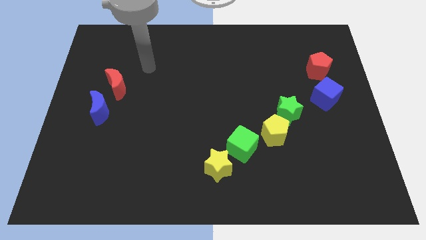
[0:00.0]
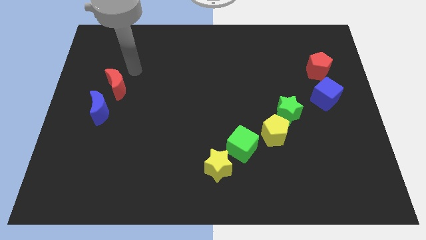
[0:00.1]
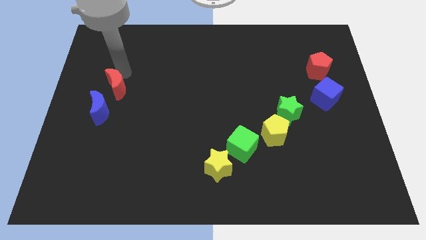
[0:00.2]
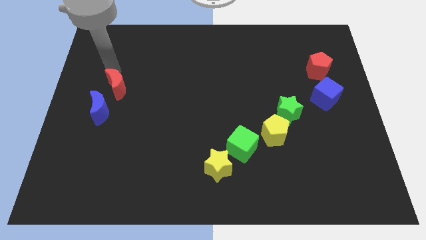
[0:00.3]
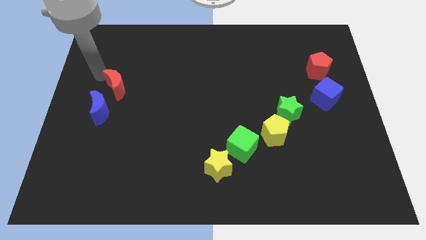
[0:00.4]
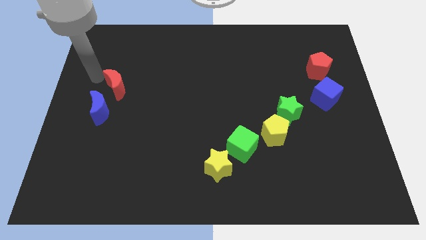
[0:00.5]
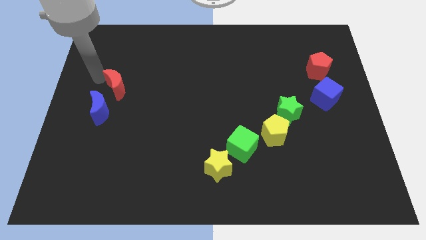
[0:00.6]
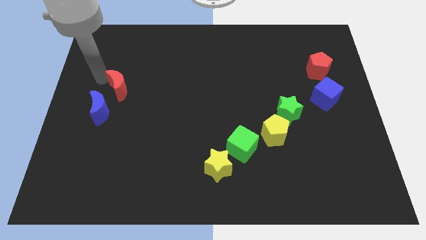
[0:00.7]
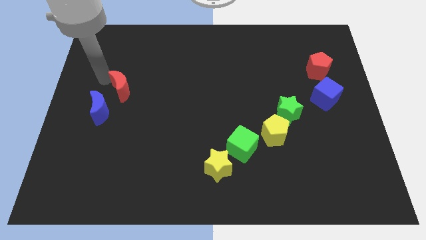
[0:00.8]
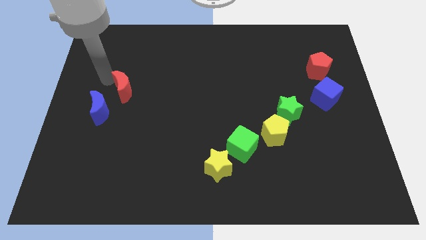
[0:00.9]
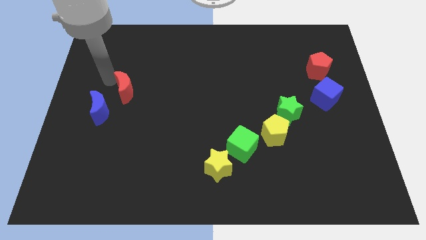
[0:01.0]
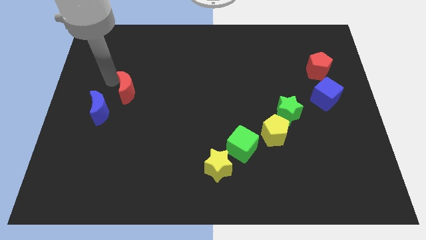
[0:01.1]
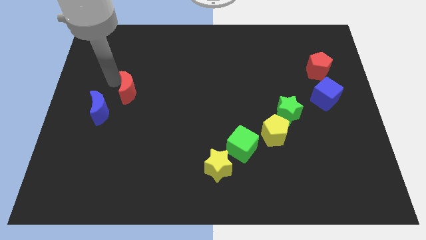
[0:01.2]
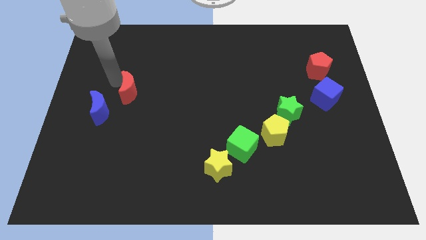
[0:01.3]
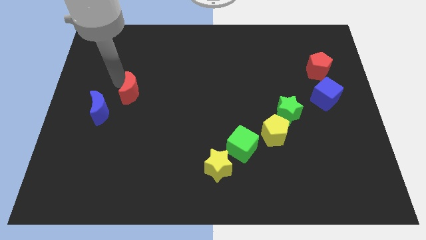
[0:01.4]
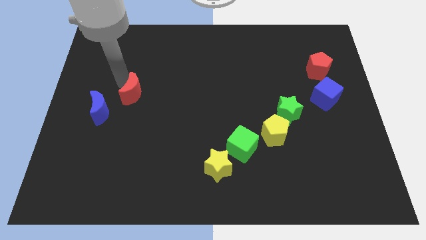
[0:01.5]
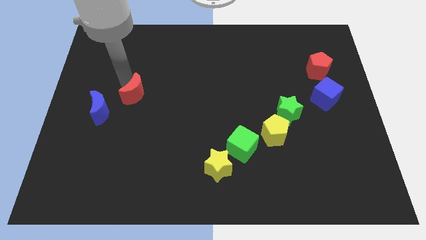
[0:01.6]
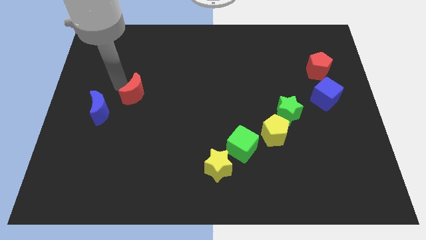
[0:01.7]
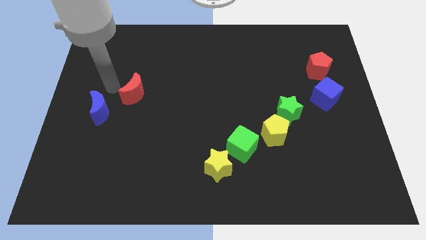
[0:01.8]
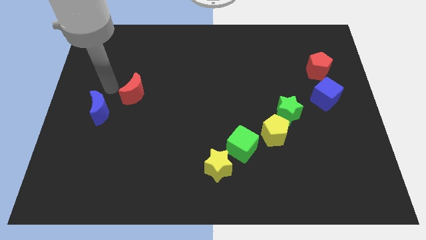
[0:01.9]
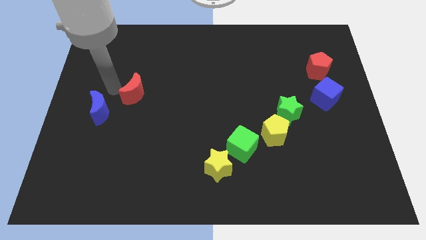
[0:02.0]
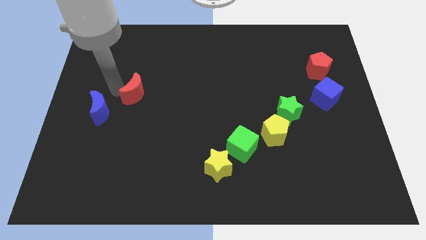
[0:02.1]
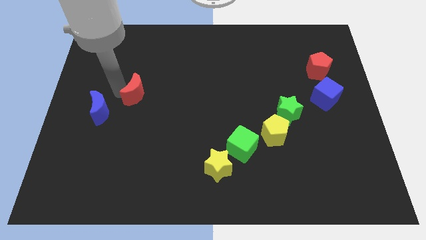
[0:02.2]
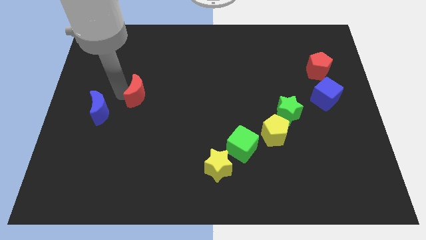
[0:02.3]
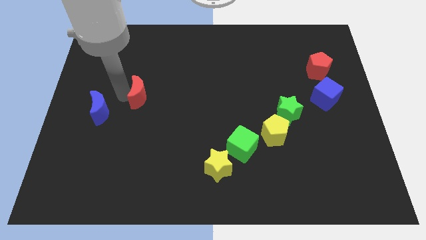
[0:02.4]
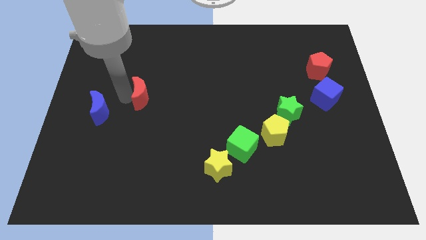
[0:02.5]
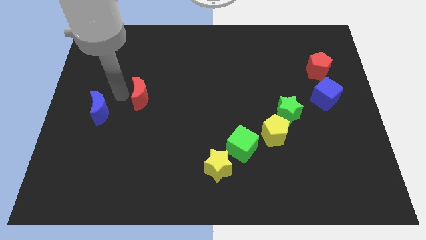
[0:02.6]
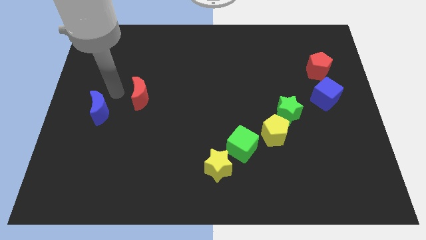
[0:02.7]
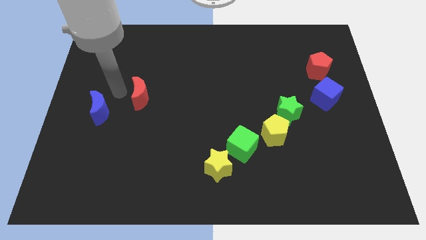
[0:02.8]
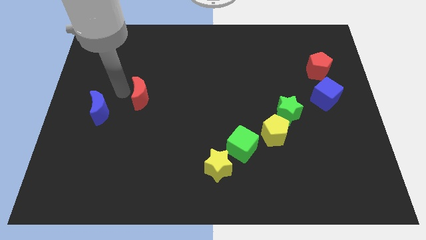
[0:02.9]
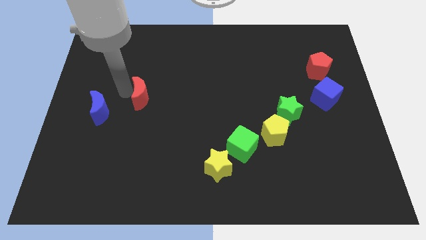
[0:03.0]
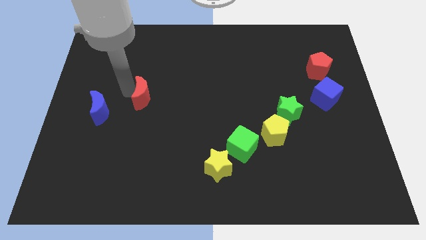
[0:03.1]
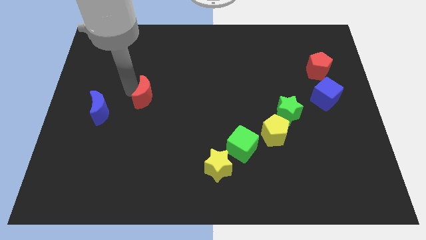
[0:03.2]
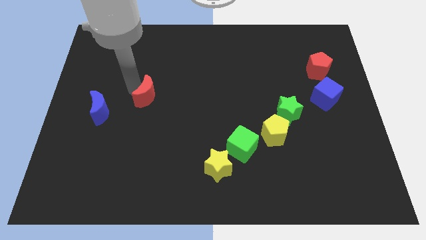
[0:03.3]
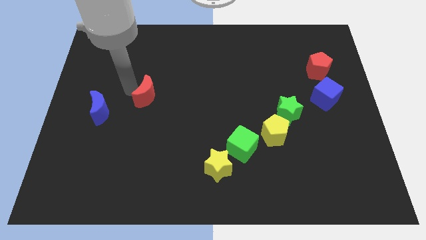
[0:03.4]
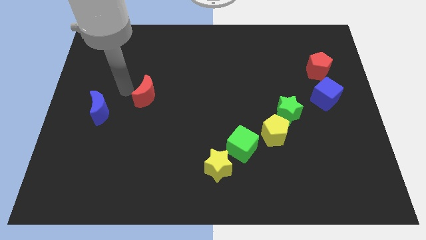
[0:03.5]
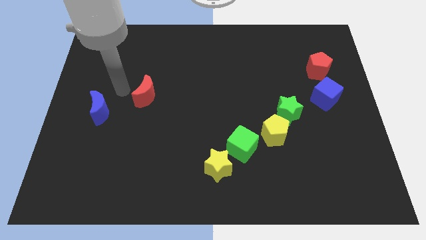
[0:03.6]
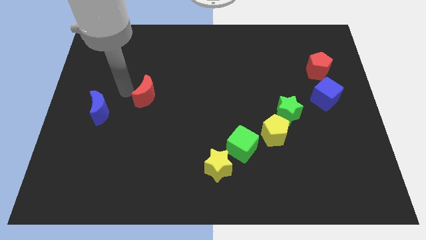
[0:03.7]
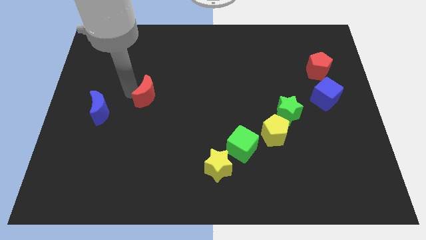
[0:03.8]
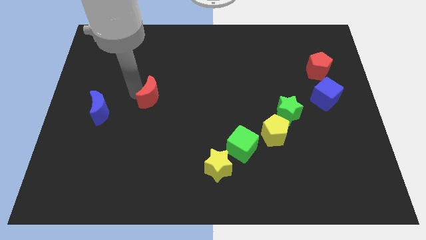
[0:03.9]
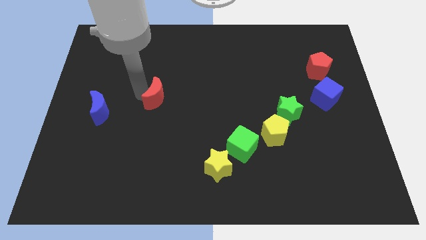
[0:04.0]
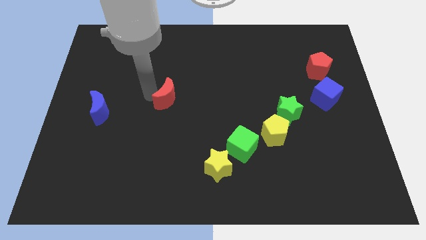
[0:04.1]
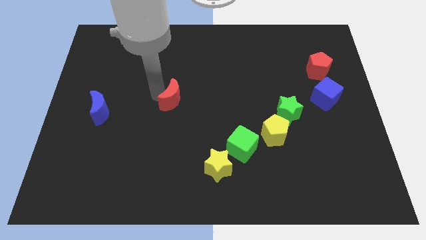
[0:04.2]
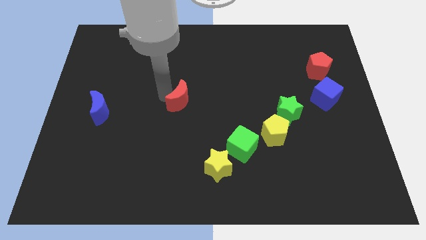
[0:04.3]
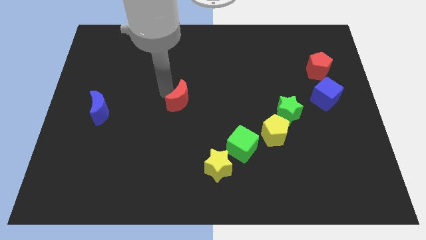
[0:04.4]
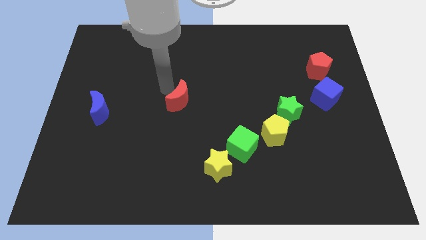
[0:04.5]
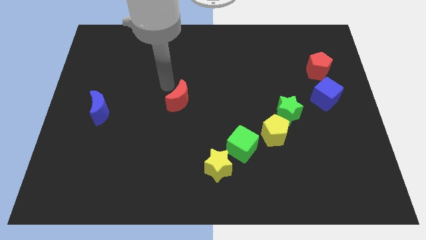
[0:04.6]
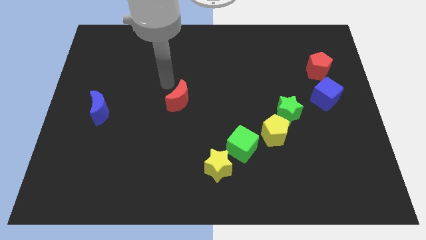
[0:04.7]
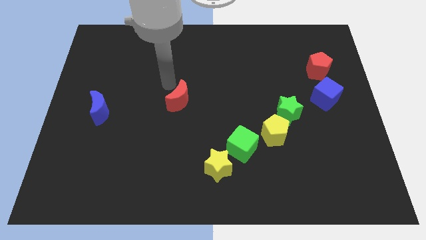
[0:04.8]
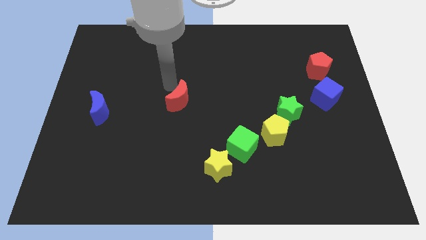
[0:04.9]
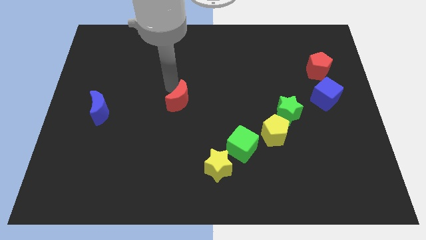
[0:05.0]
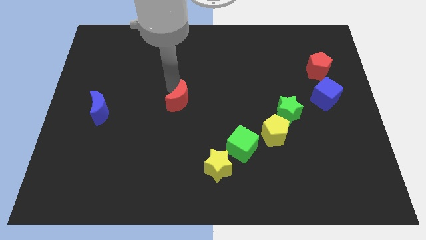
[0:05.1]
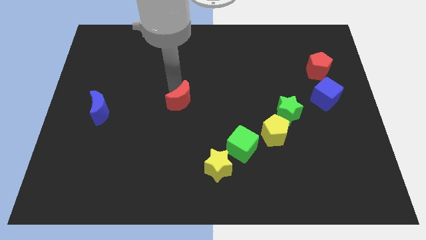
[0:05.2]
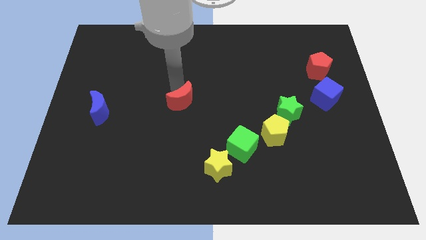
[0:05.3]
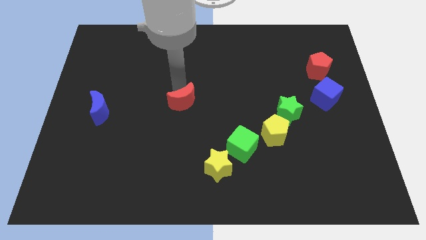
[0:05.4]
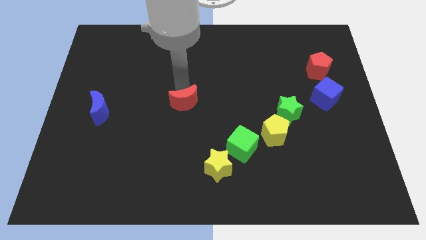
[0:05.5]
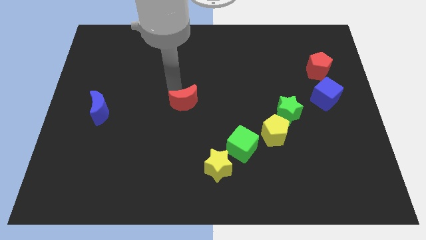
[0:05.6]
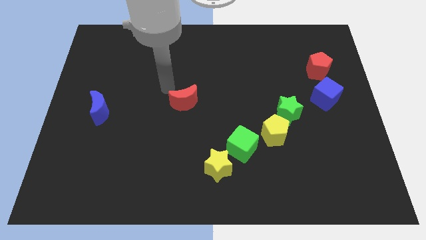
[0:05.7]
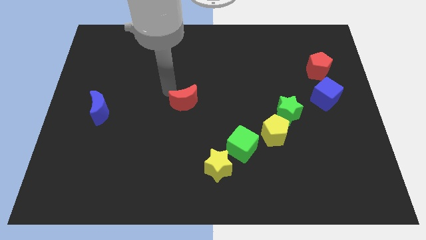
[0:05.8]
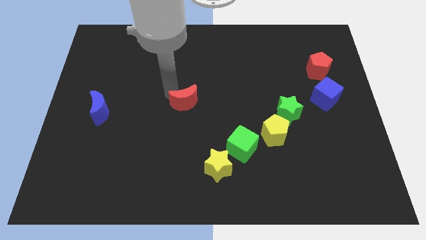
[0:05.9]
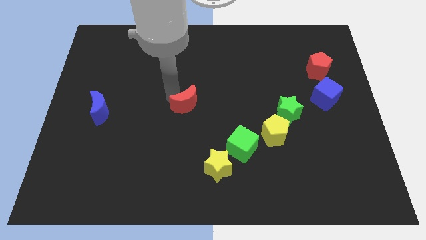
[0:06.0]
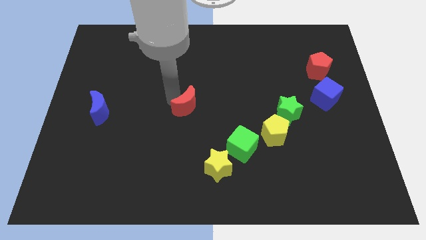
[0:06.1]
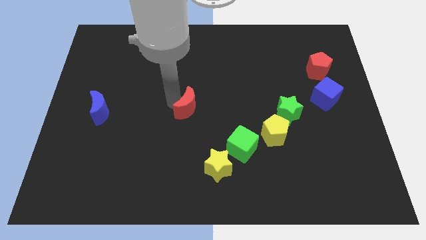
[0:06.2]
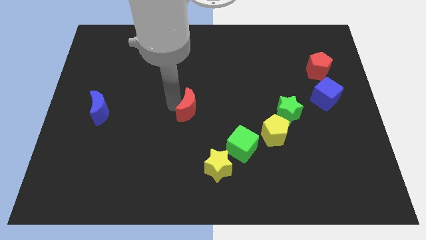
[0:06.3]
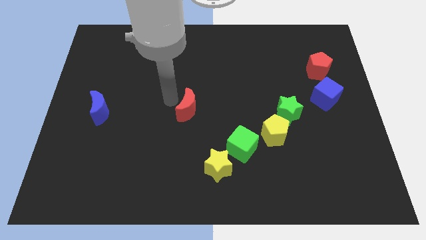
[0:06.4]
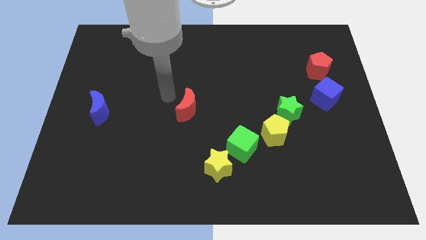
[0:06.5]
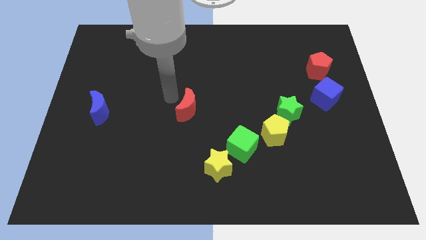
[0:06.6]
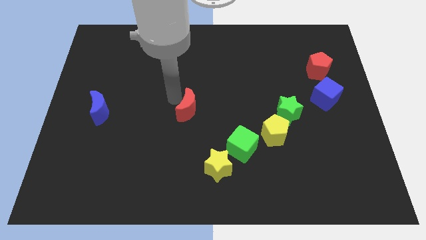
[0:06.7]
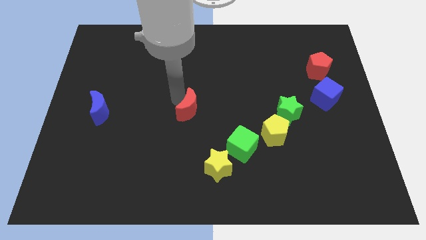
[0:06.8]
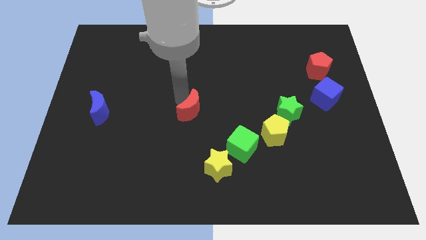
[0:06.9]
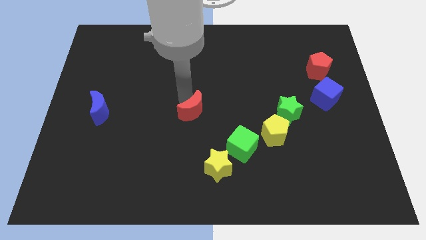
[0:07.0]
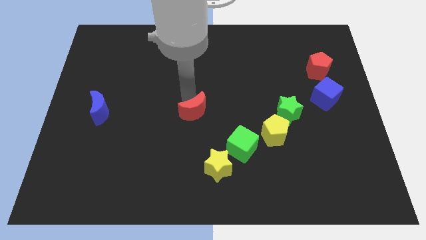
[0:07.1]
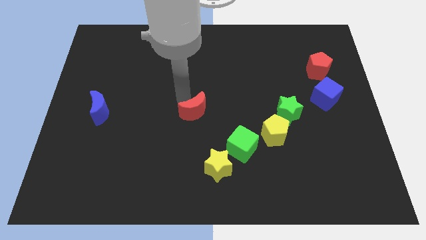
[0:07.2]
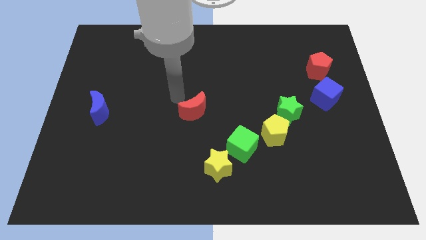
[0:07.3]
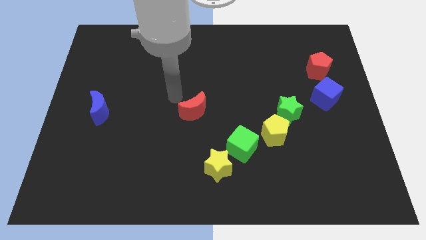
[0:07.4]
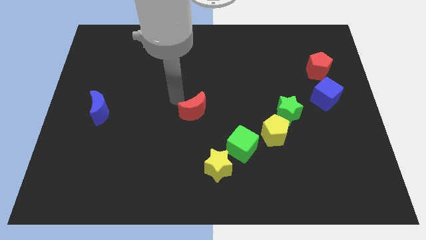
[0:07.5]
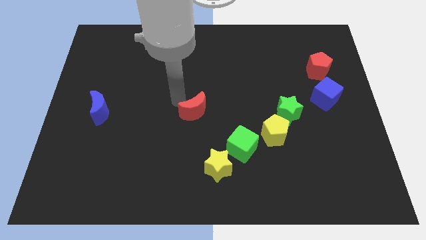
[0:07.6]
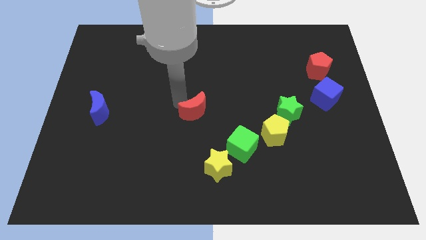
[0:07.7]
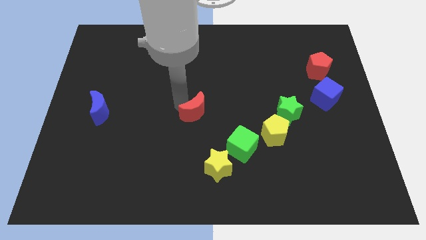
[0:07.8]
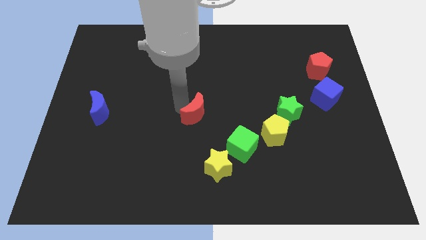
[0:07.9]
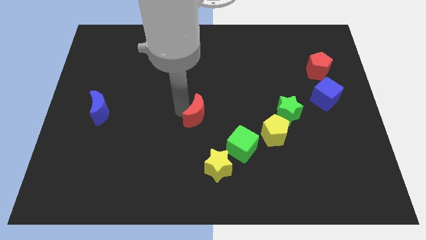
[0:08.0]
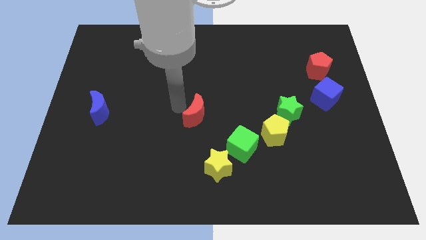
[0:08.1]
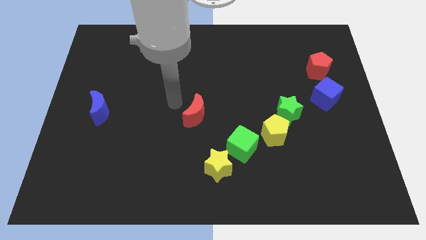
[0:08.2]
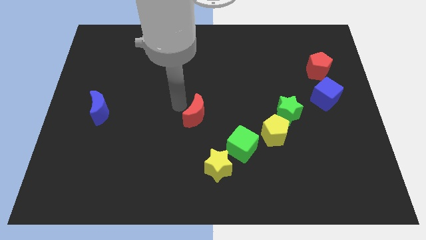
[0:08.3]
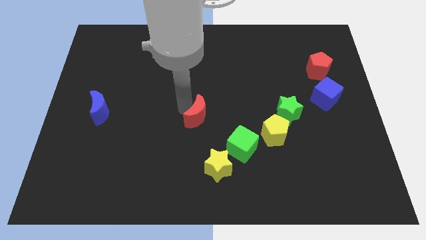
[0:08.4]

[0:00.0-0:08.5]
slide the red moon to the top left side of the green cube
